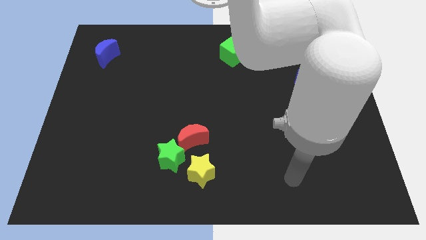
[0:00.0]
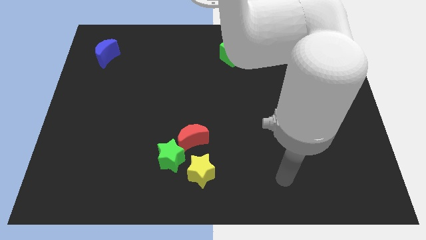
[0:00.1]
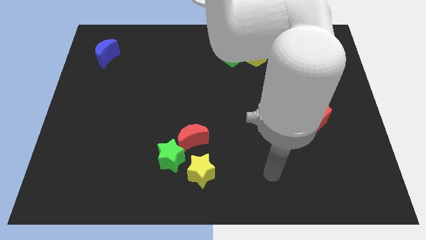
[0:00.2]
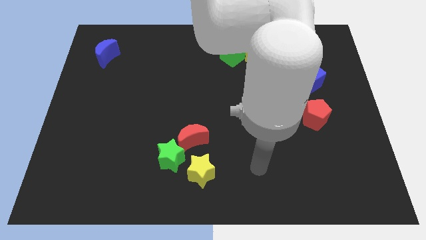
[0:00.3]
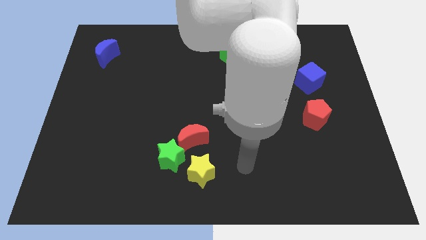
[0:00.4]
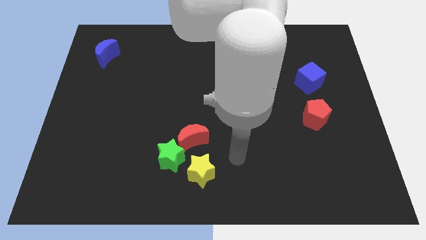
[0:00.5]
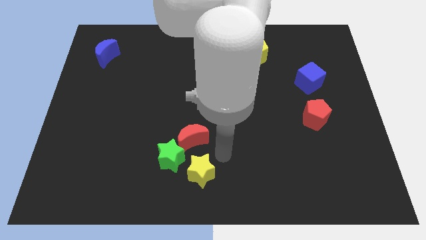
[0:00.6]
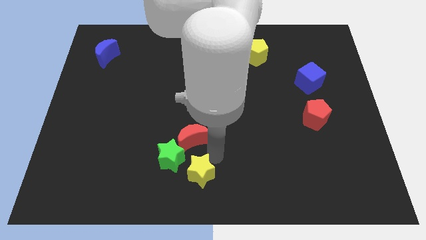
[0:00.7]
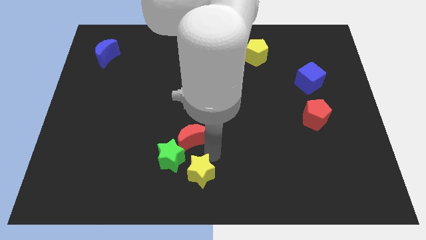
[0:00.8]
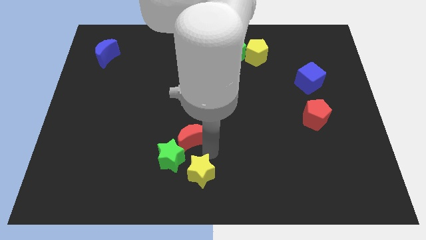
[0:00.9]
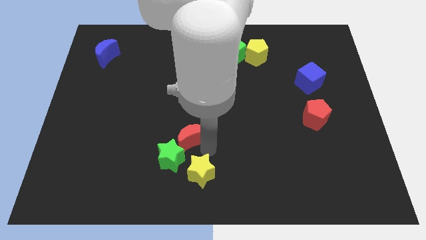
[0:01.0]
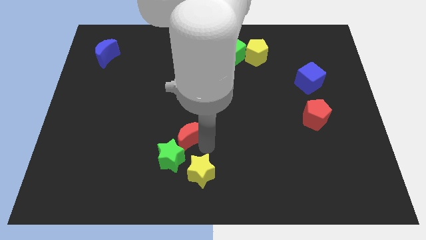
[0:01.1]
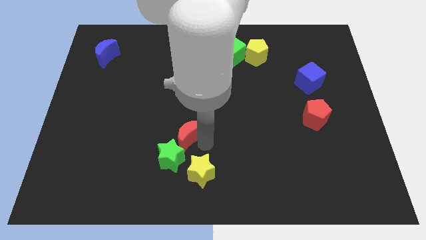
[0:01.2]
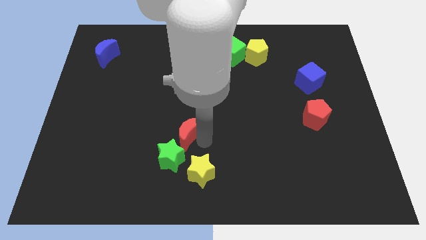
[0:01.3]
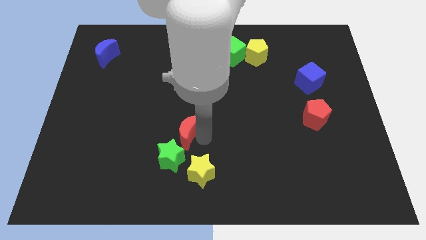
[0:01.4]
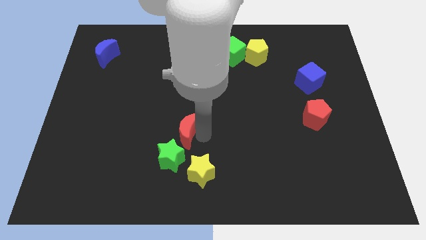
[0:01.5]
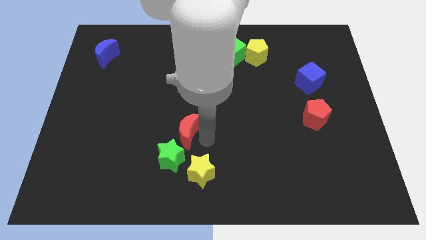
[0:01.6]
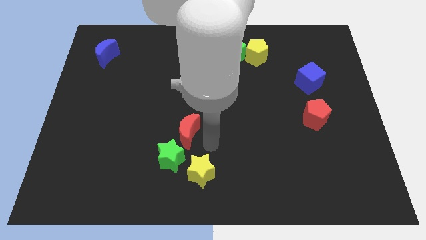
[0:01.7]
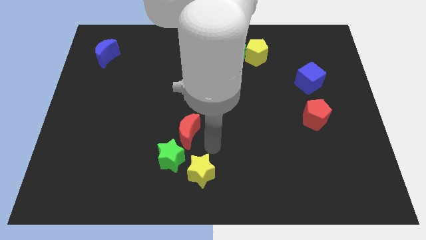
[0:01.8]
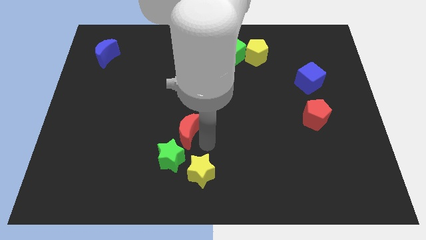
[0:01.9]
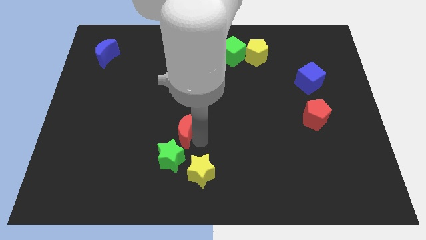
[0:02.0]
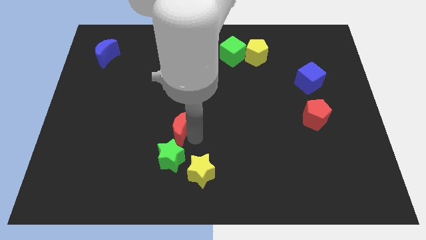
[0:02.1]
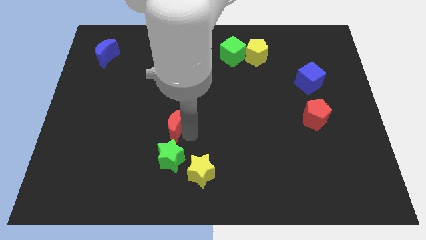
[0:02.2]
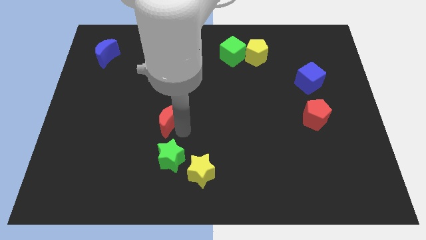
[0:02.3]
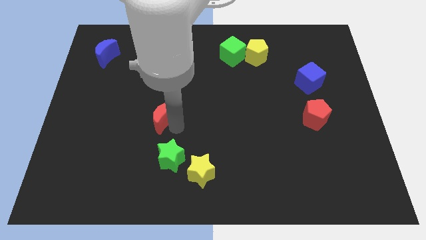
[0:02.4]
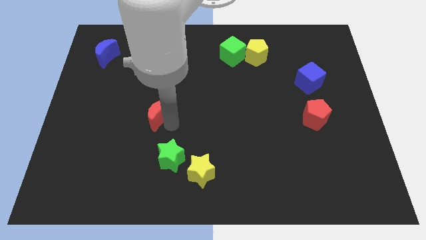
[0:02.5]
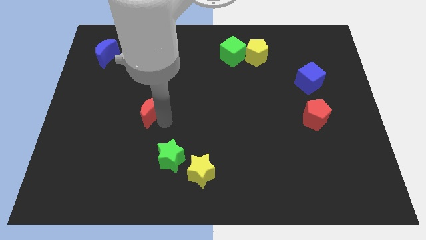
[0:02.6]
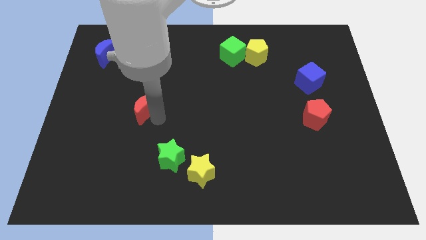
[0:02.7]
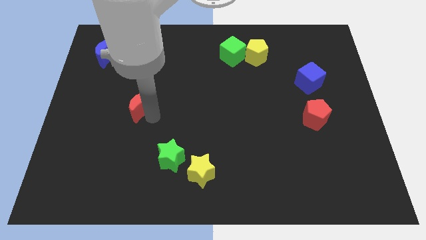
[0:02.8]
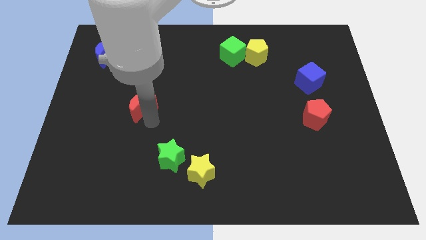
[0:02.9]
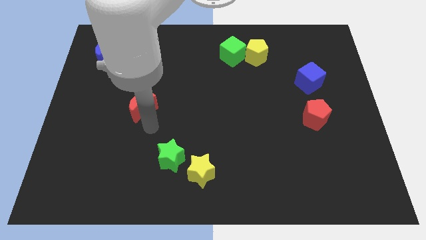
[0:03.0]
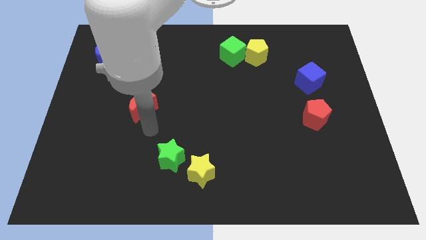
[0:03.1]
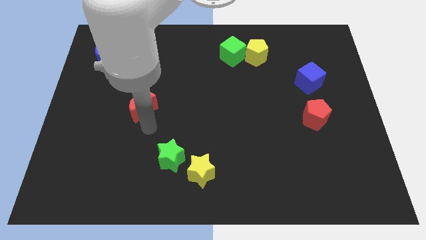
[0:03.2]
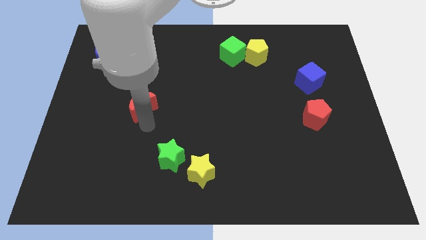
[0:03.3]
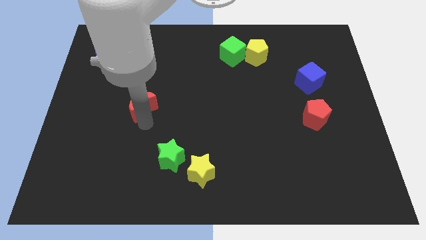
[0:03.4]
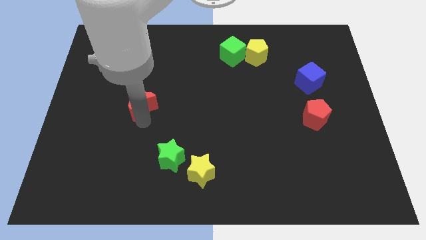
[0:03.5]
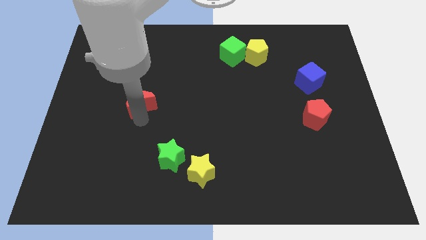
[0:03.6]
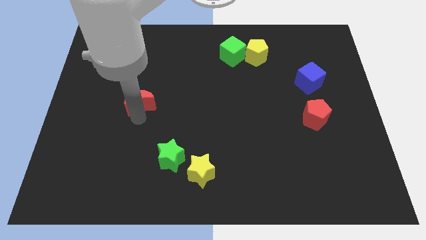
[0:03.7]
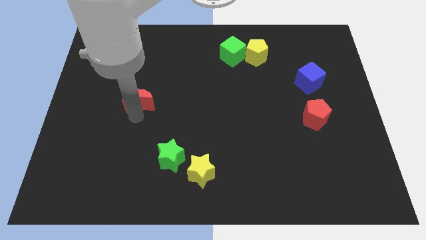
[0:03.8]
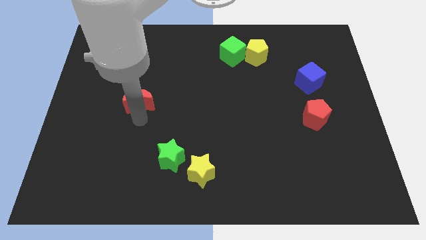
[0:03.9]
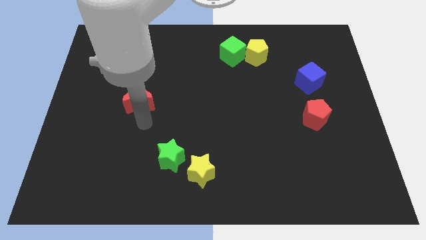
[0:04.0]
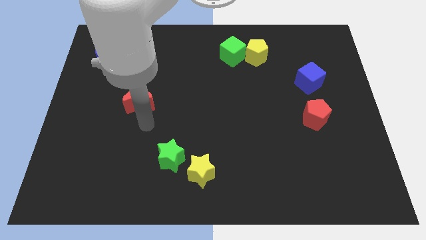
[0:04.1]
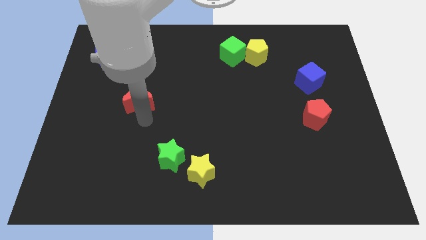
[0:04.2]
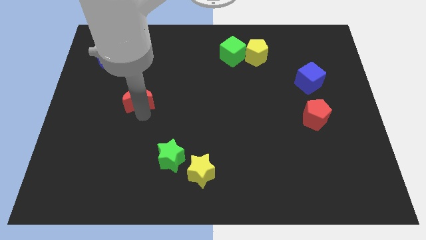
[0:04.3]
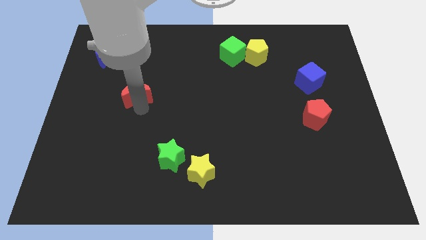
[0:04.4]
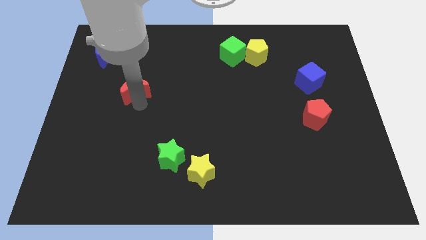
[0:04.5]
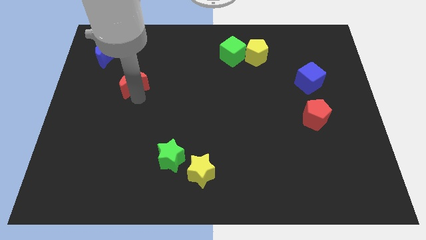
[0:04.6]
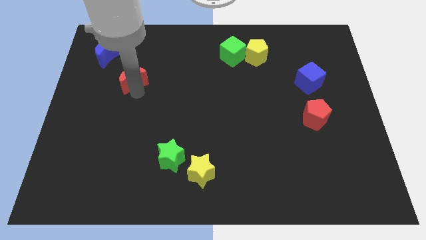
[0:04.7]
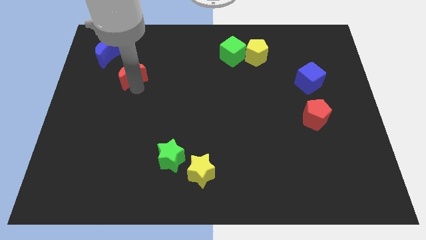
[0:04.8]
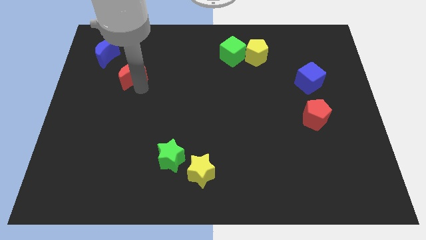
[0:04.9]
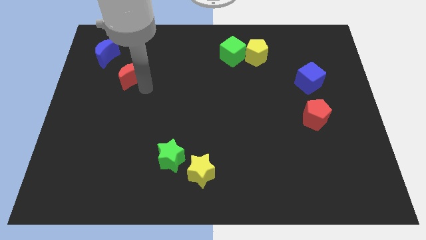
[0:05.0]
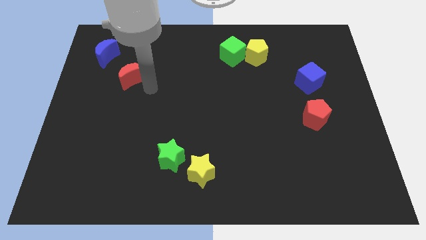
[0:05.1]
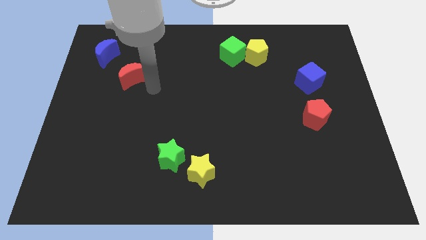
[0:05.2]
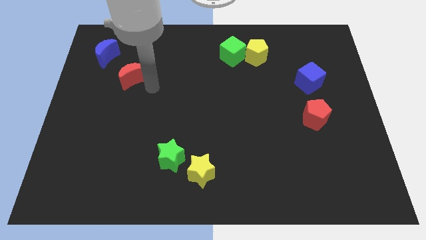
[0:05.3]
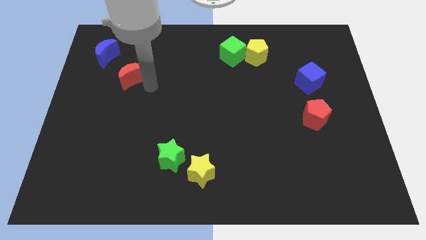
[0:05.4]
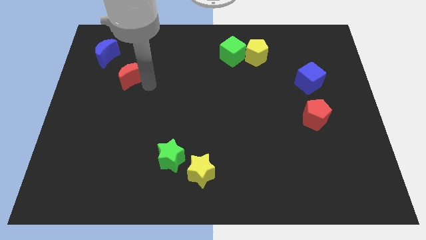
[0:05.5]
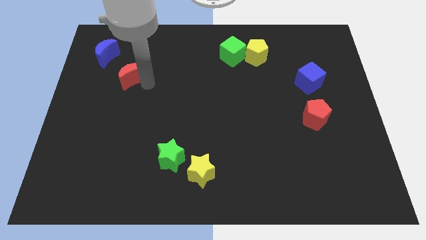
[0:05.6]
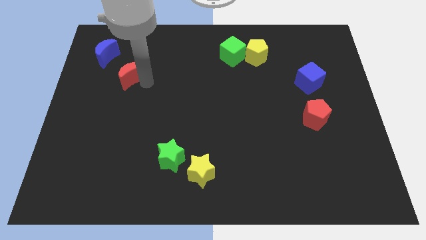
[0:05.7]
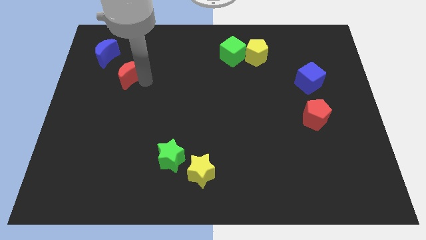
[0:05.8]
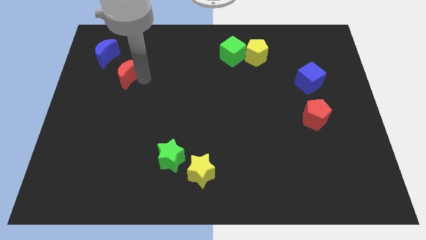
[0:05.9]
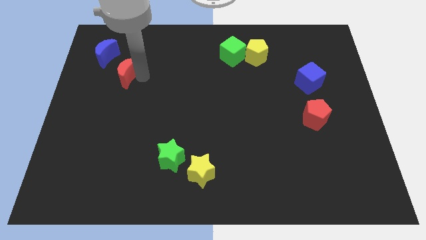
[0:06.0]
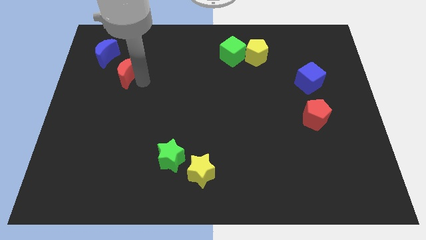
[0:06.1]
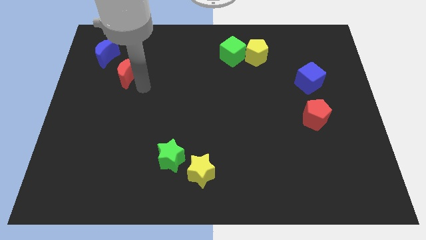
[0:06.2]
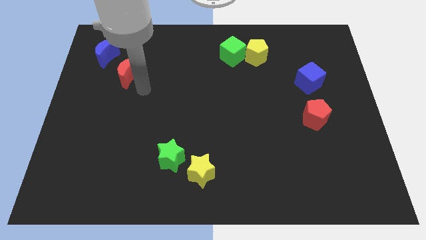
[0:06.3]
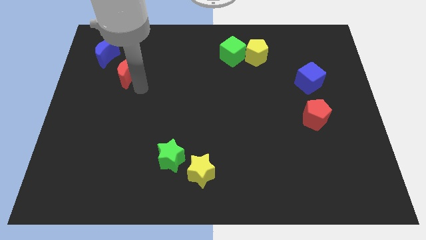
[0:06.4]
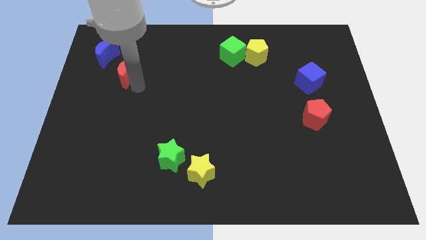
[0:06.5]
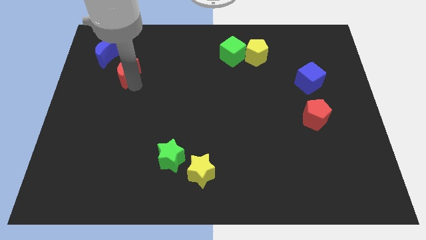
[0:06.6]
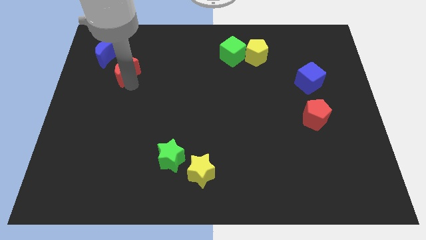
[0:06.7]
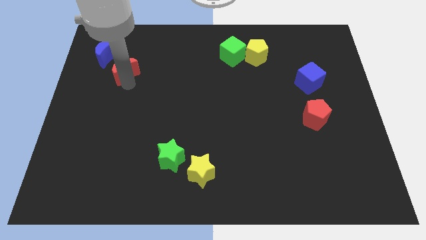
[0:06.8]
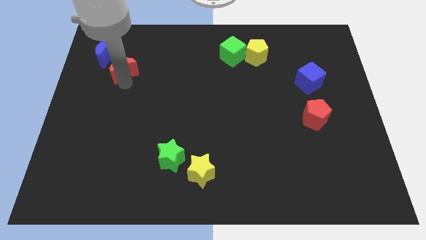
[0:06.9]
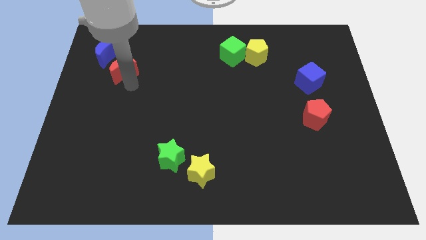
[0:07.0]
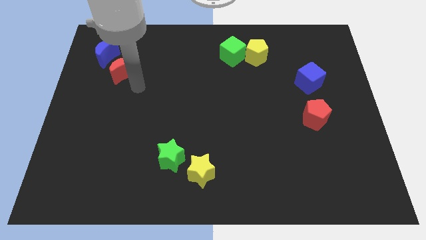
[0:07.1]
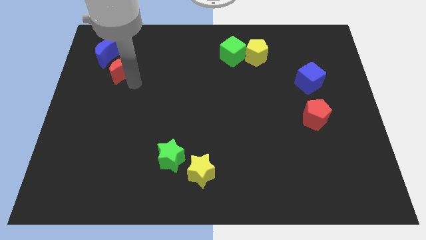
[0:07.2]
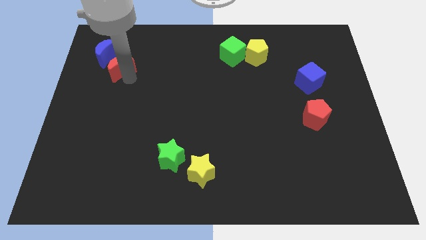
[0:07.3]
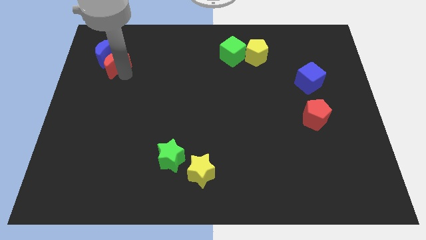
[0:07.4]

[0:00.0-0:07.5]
move the red moon to the blue moon

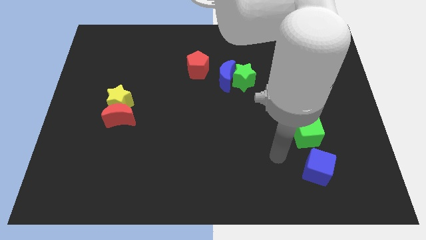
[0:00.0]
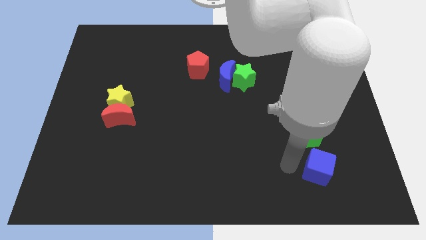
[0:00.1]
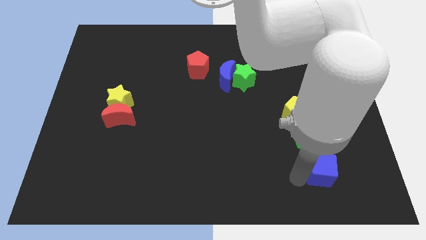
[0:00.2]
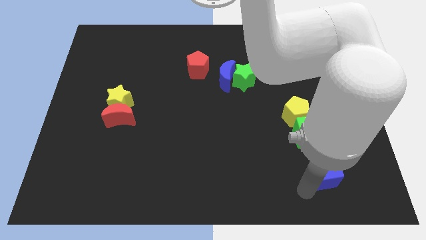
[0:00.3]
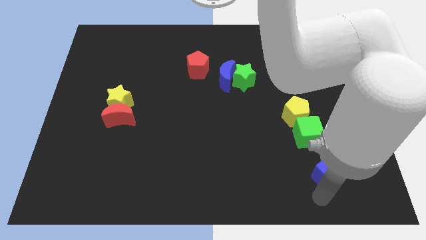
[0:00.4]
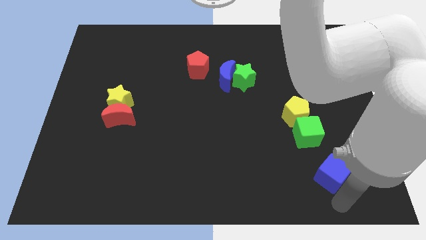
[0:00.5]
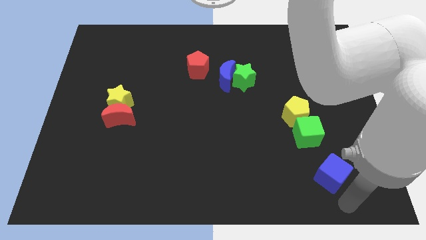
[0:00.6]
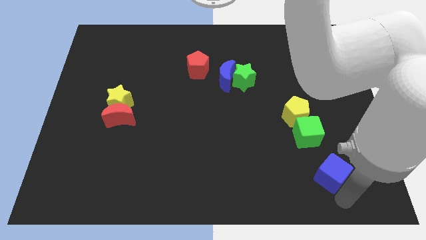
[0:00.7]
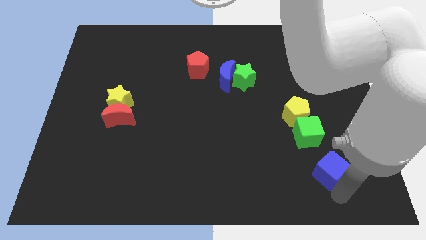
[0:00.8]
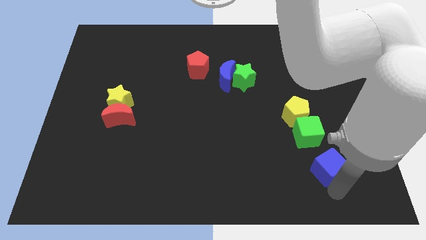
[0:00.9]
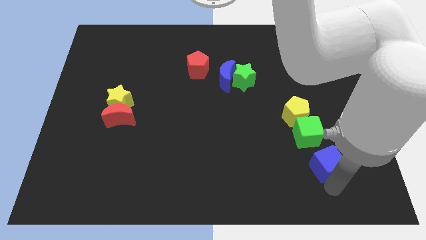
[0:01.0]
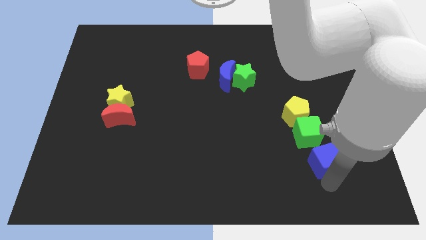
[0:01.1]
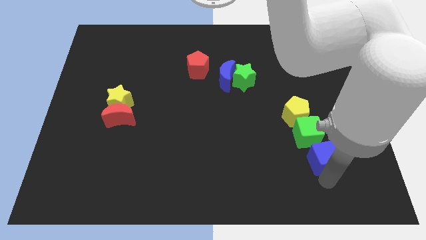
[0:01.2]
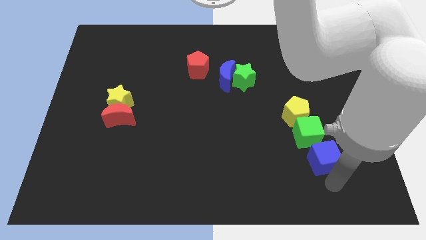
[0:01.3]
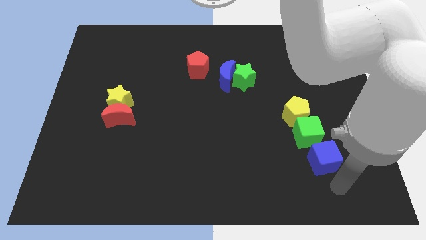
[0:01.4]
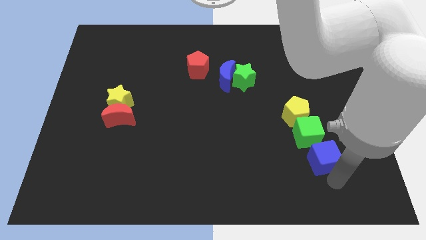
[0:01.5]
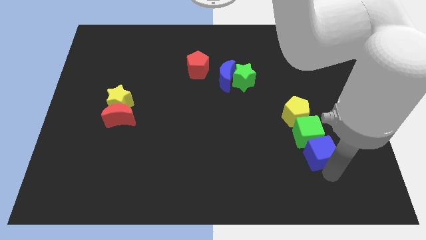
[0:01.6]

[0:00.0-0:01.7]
push the blue cube next to the green cube
